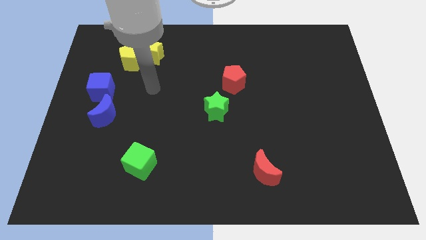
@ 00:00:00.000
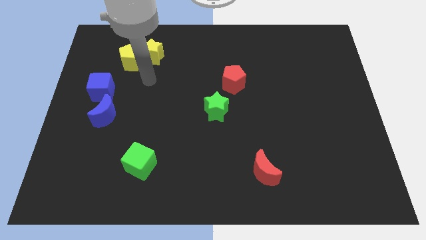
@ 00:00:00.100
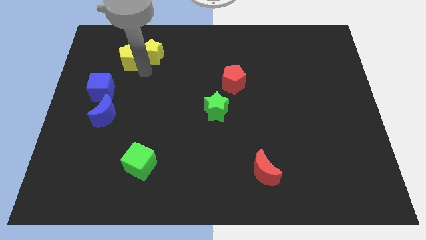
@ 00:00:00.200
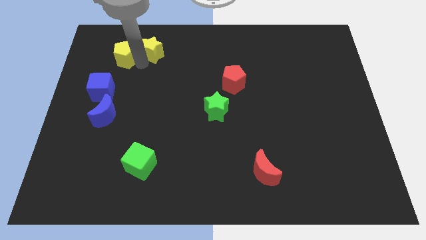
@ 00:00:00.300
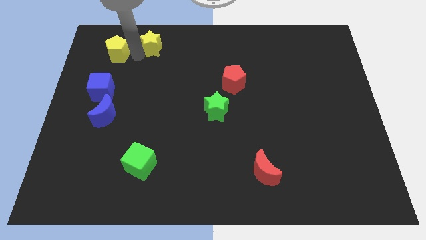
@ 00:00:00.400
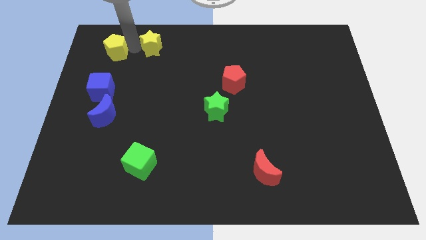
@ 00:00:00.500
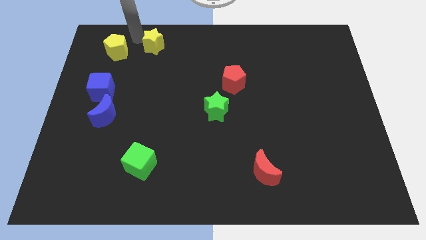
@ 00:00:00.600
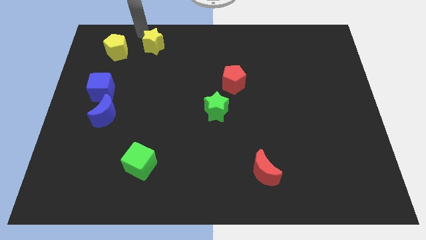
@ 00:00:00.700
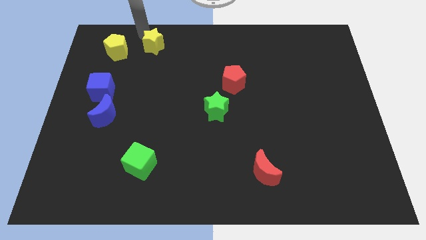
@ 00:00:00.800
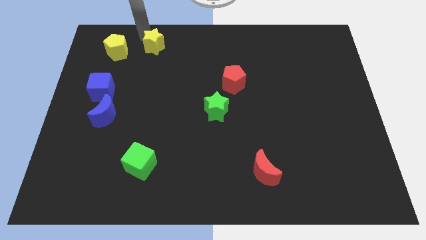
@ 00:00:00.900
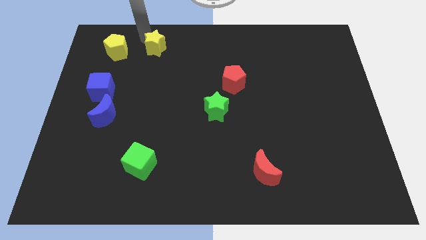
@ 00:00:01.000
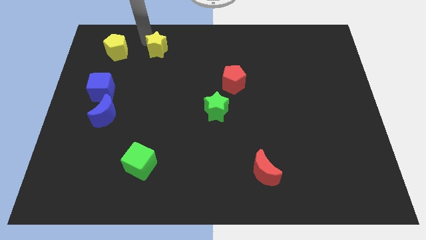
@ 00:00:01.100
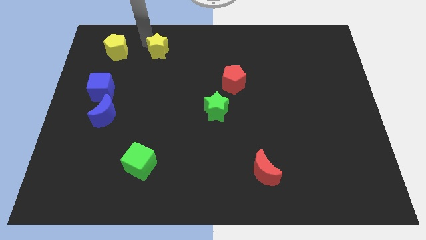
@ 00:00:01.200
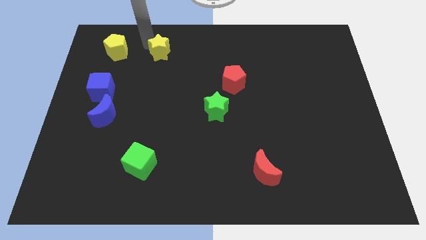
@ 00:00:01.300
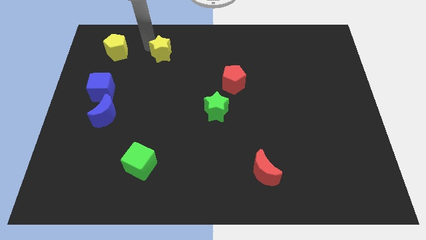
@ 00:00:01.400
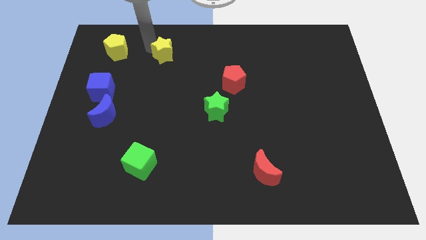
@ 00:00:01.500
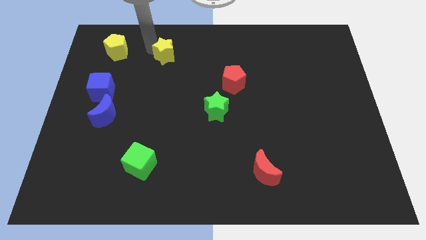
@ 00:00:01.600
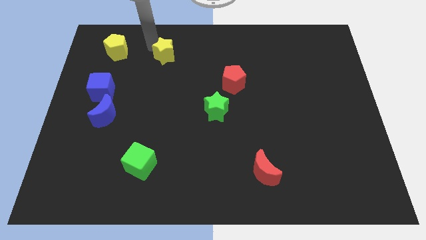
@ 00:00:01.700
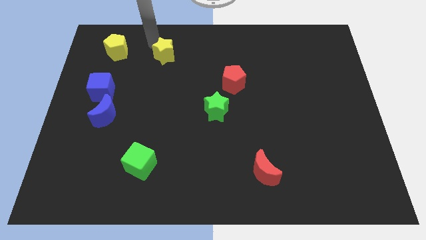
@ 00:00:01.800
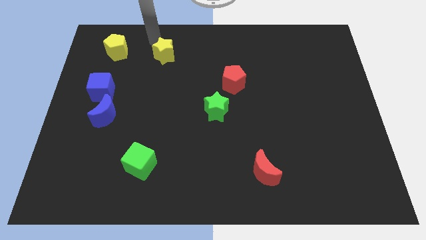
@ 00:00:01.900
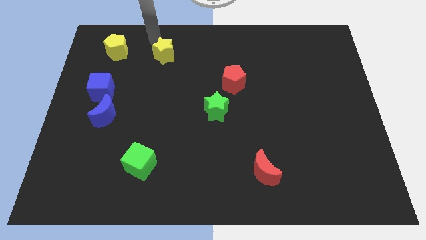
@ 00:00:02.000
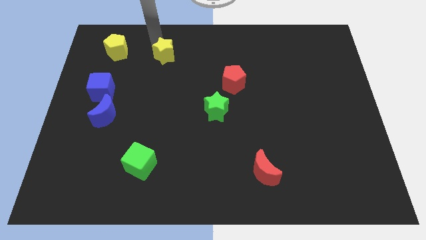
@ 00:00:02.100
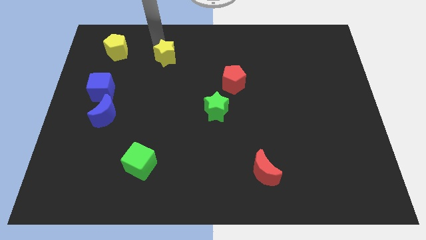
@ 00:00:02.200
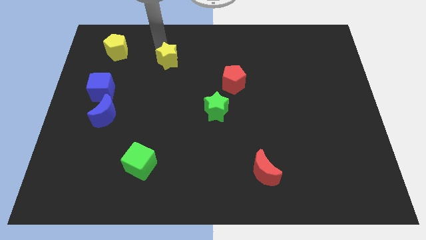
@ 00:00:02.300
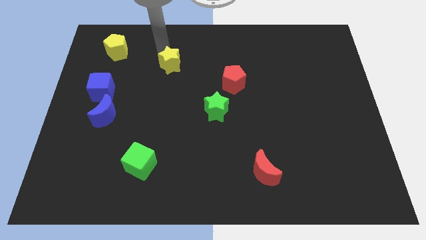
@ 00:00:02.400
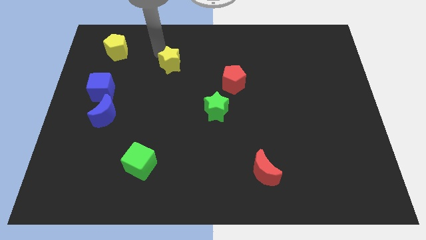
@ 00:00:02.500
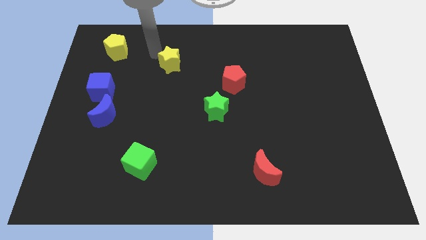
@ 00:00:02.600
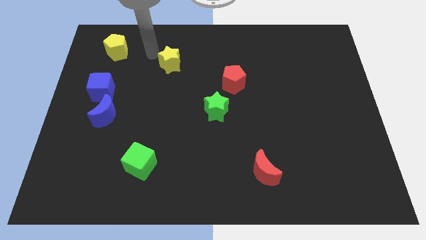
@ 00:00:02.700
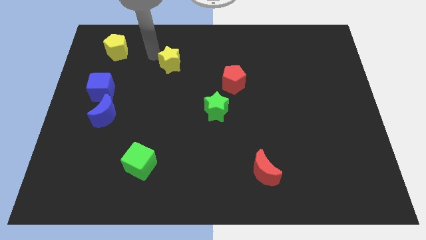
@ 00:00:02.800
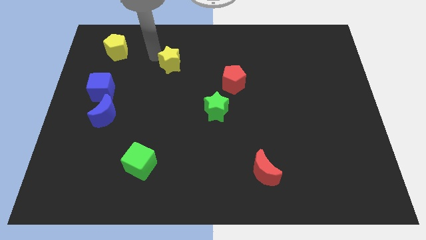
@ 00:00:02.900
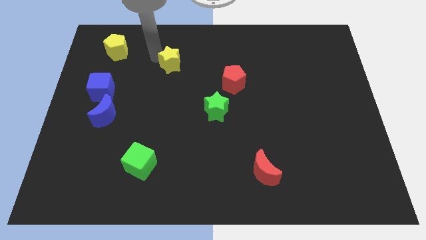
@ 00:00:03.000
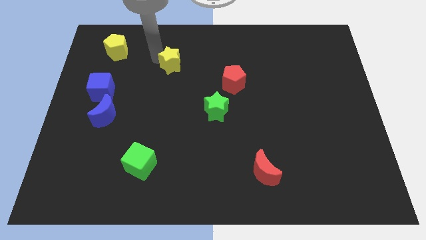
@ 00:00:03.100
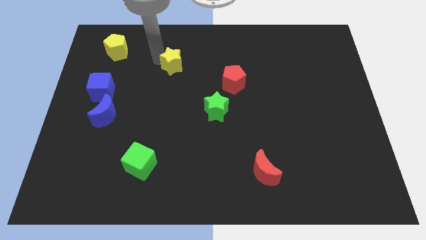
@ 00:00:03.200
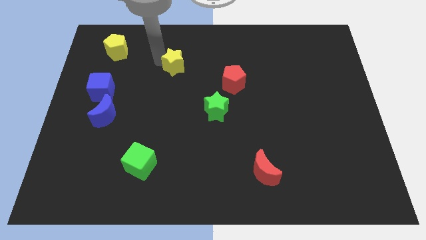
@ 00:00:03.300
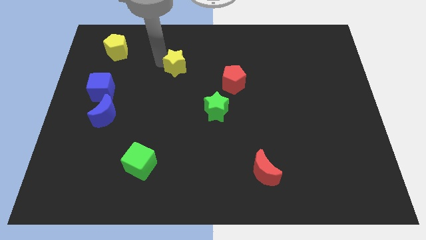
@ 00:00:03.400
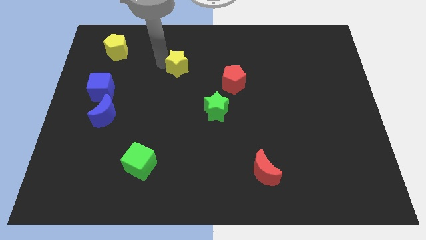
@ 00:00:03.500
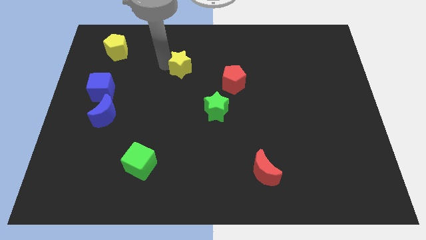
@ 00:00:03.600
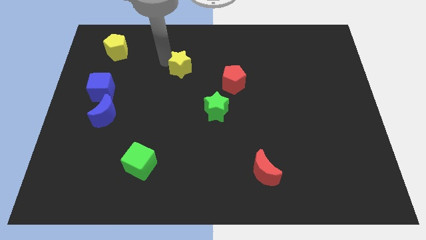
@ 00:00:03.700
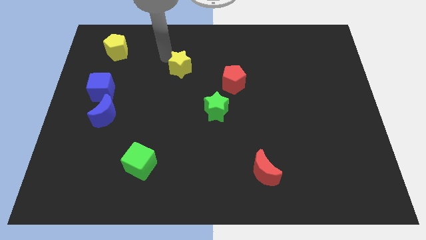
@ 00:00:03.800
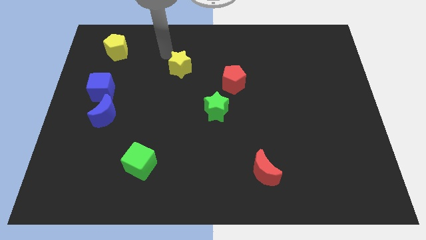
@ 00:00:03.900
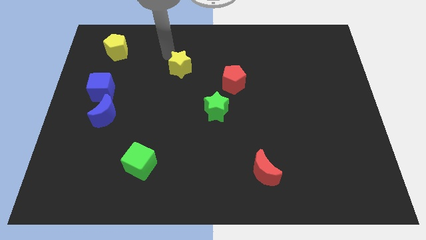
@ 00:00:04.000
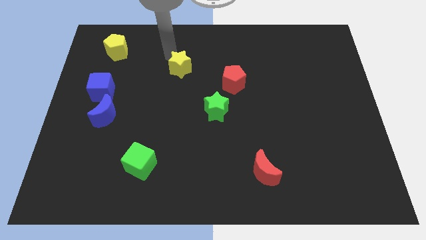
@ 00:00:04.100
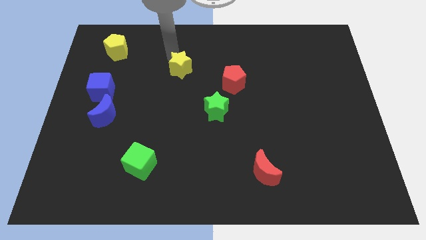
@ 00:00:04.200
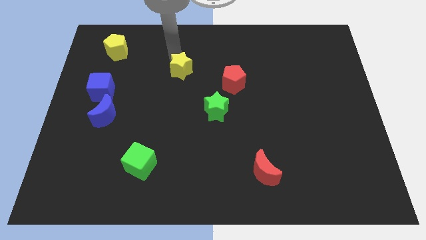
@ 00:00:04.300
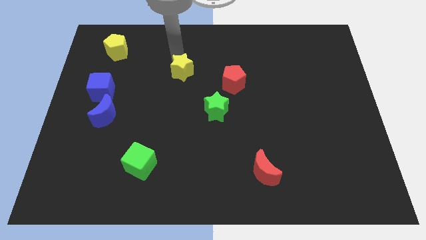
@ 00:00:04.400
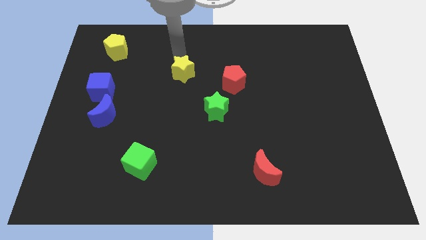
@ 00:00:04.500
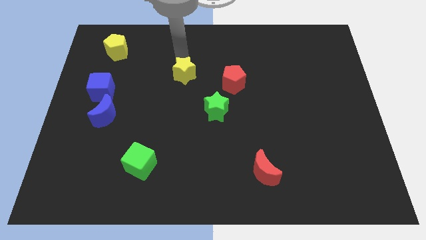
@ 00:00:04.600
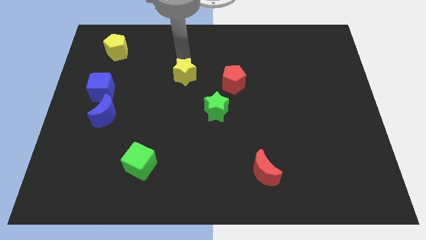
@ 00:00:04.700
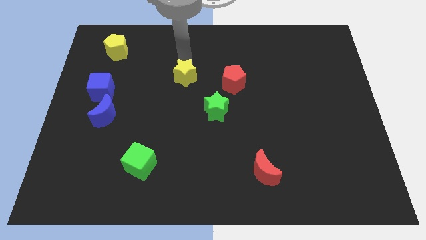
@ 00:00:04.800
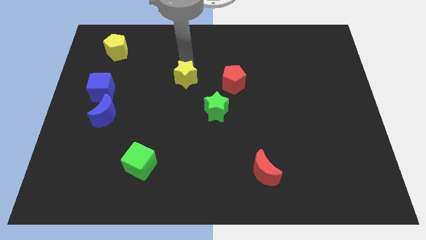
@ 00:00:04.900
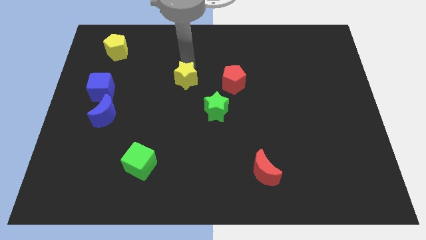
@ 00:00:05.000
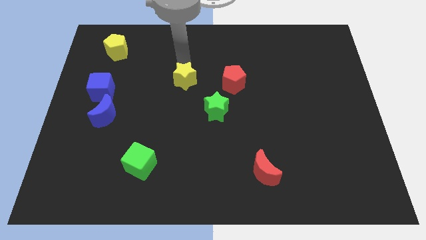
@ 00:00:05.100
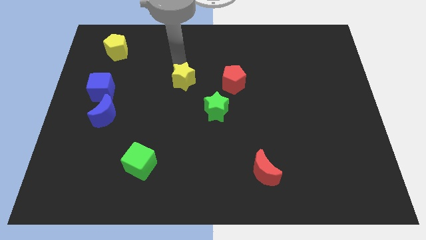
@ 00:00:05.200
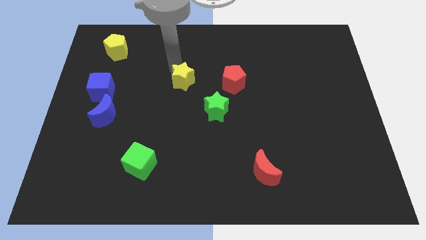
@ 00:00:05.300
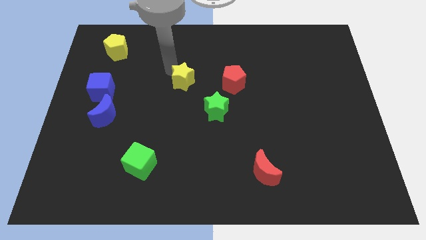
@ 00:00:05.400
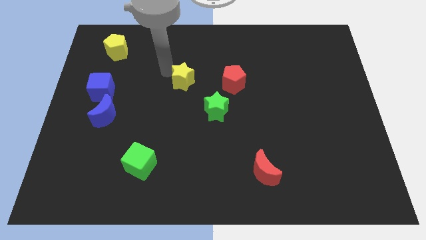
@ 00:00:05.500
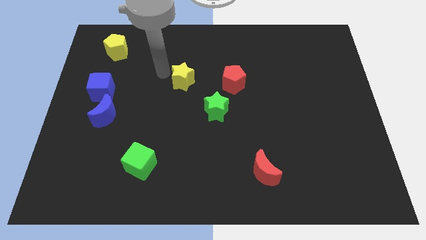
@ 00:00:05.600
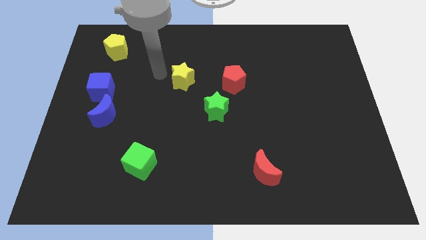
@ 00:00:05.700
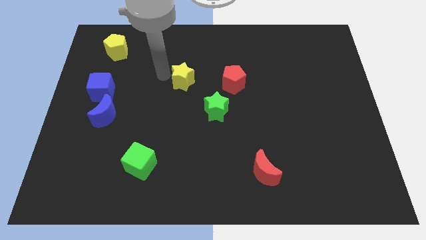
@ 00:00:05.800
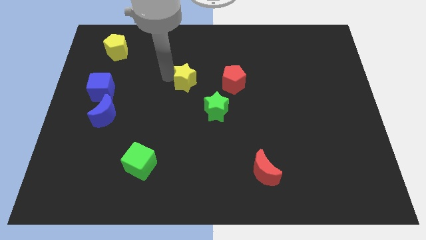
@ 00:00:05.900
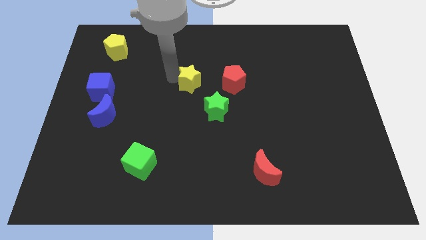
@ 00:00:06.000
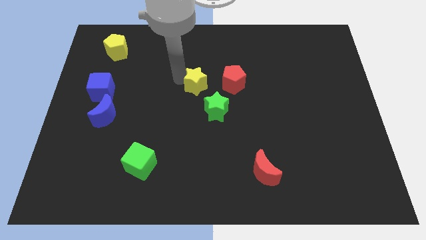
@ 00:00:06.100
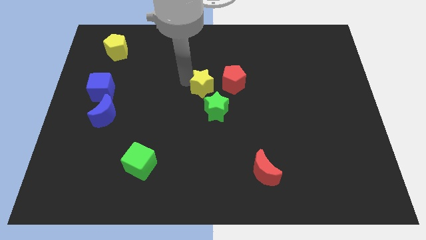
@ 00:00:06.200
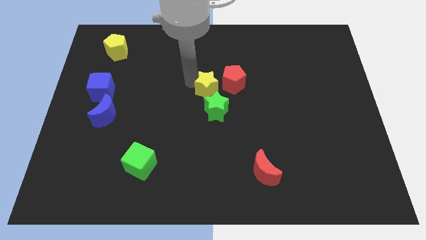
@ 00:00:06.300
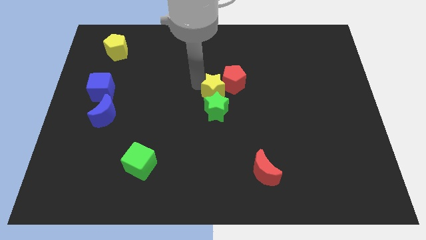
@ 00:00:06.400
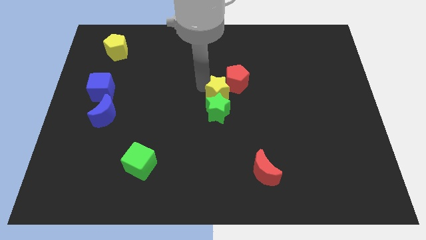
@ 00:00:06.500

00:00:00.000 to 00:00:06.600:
move the yellow star to the bottom side of the red pentagon
